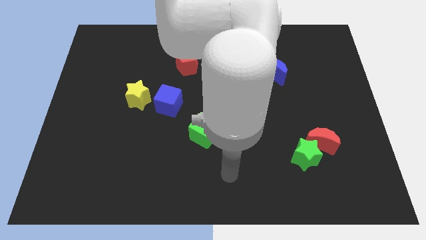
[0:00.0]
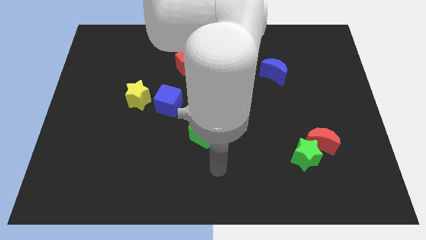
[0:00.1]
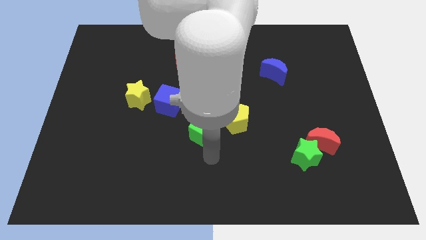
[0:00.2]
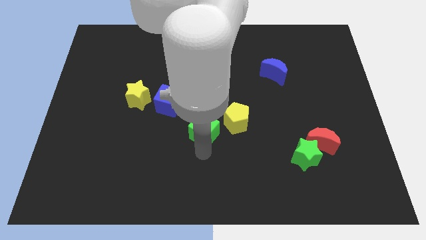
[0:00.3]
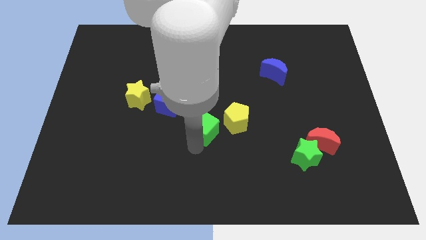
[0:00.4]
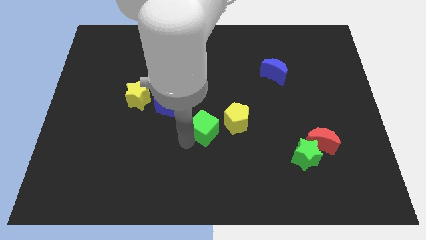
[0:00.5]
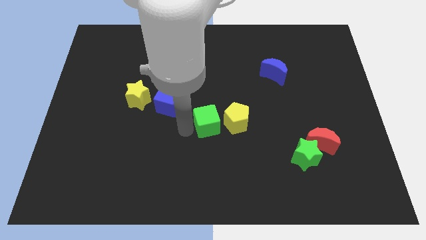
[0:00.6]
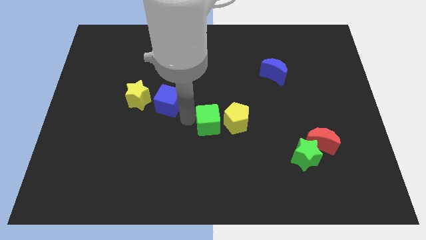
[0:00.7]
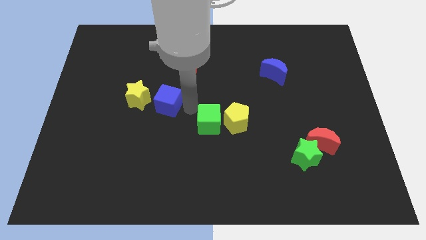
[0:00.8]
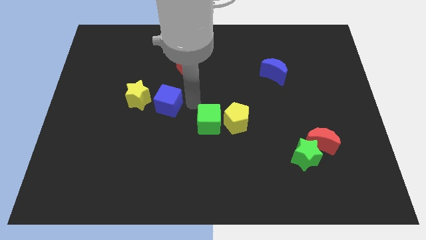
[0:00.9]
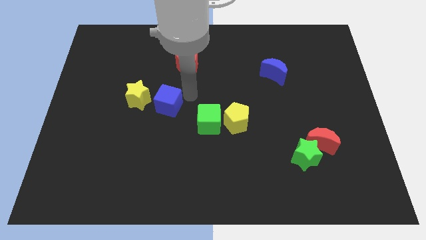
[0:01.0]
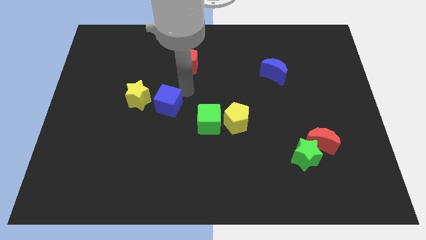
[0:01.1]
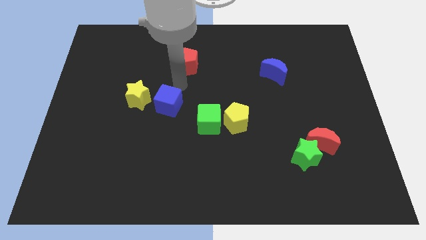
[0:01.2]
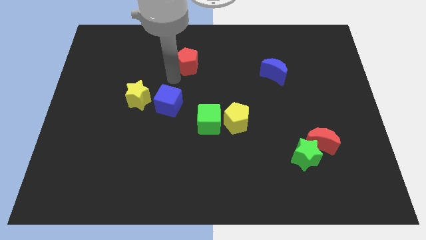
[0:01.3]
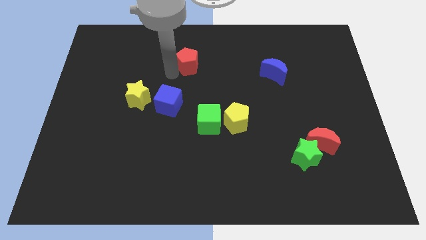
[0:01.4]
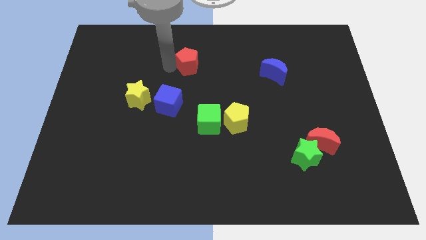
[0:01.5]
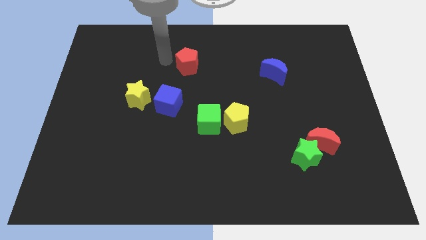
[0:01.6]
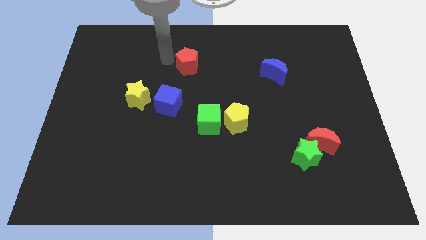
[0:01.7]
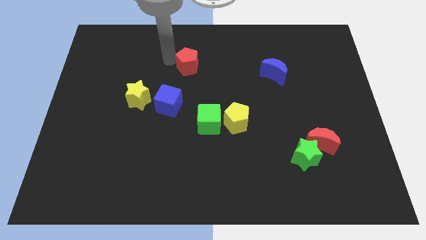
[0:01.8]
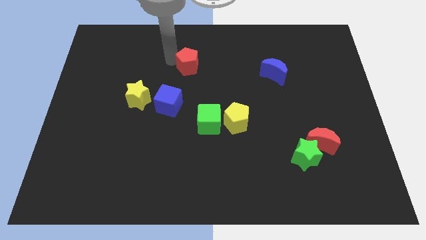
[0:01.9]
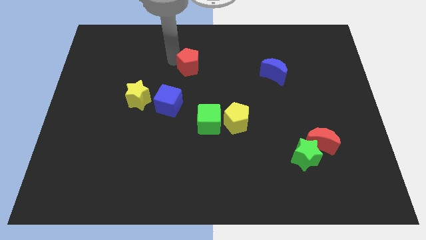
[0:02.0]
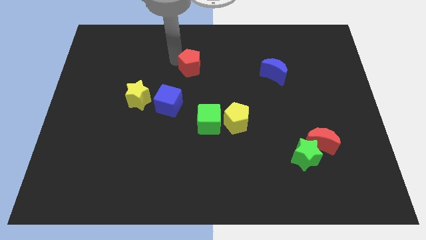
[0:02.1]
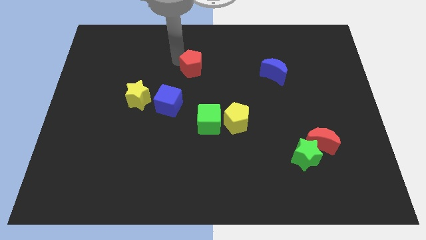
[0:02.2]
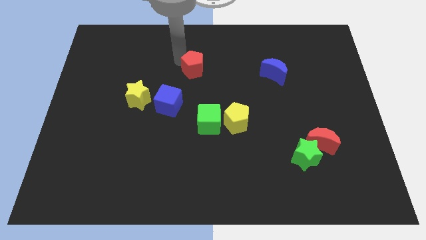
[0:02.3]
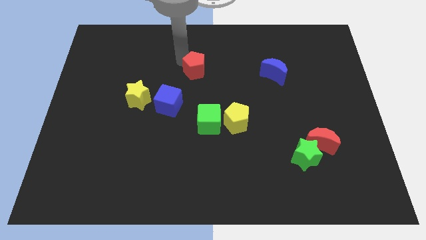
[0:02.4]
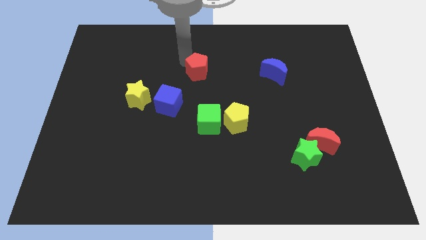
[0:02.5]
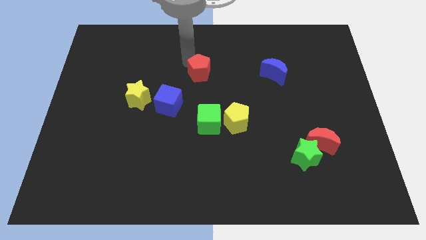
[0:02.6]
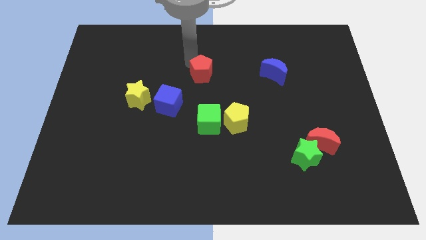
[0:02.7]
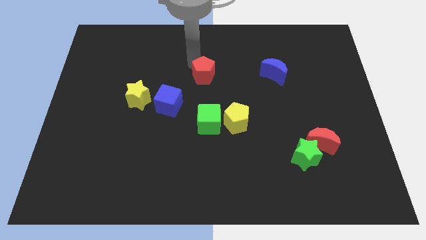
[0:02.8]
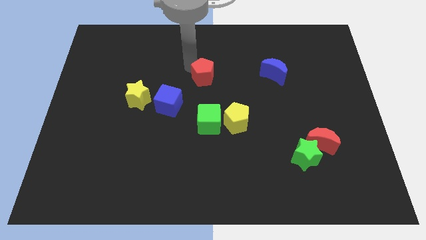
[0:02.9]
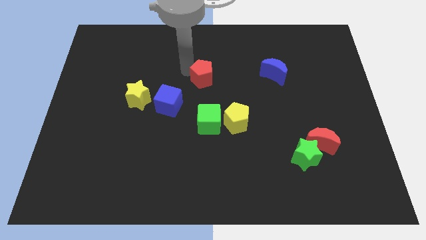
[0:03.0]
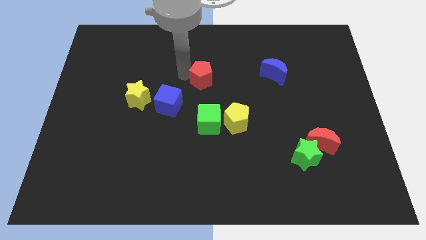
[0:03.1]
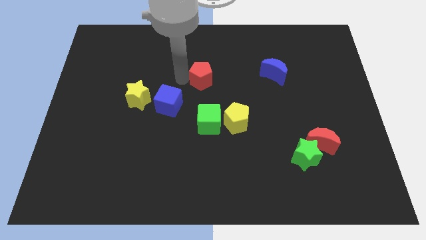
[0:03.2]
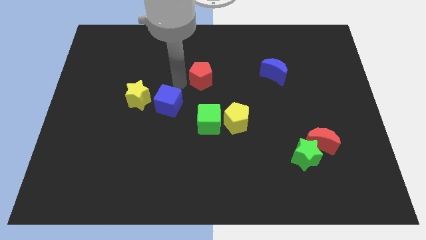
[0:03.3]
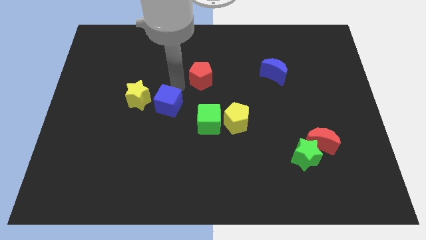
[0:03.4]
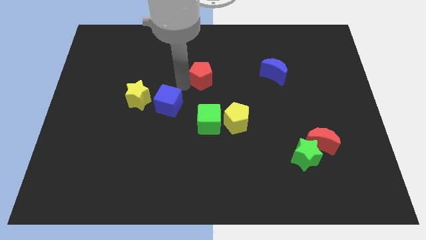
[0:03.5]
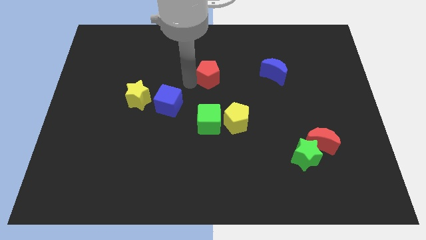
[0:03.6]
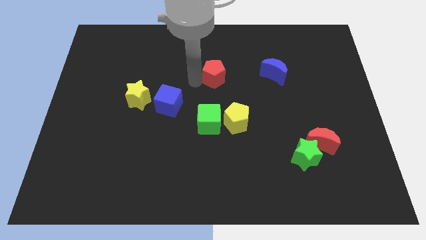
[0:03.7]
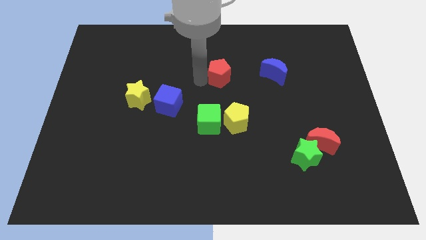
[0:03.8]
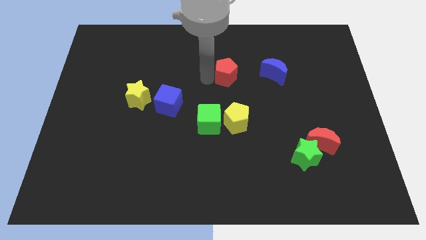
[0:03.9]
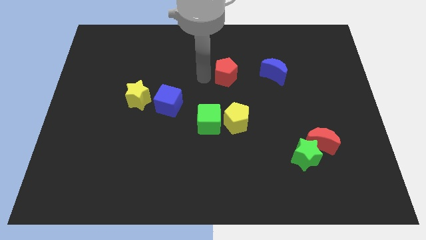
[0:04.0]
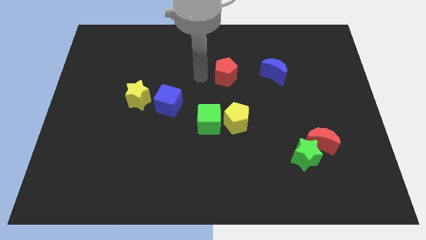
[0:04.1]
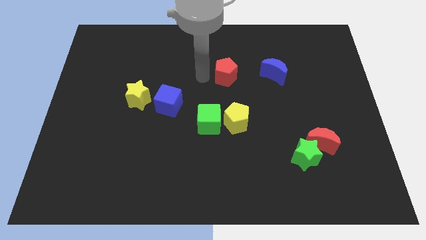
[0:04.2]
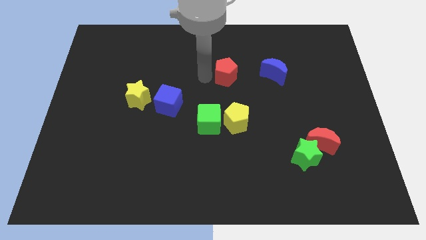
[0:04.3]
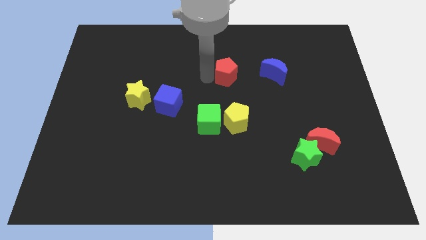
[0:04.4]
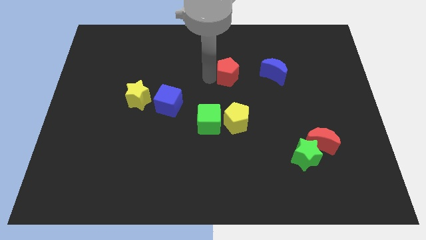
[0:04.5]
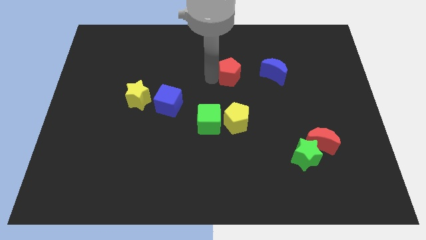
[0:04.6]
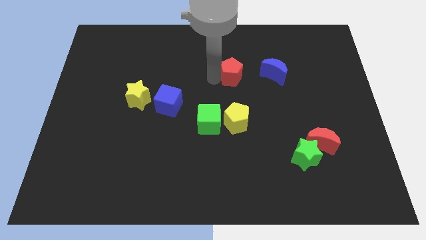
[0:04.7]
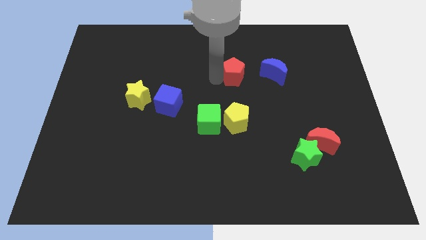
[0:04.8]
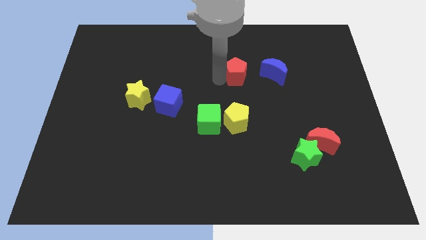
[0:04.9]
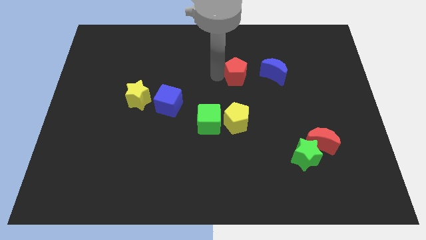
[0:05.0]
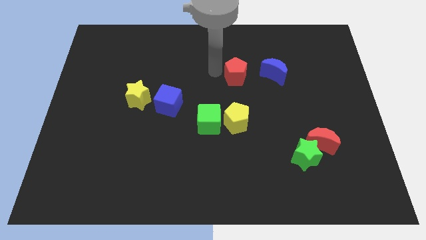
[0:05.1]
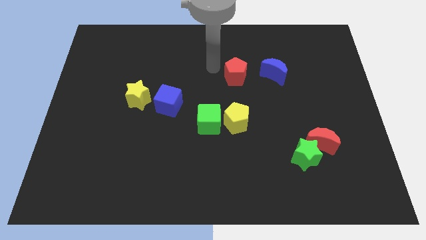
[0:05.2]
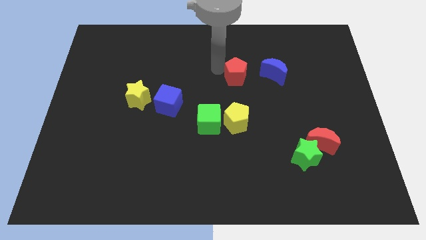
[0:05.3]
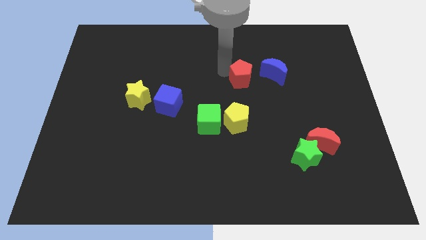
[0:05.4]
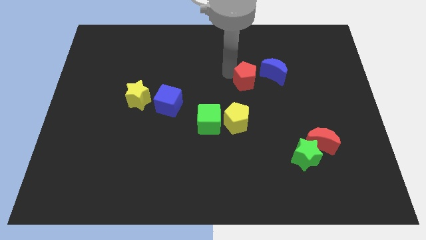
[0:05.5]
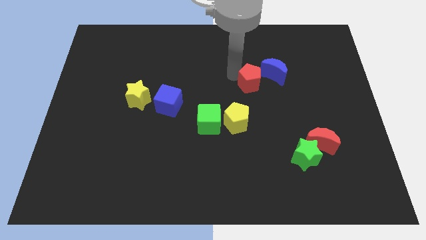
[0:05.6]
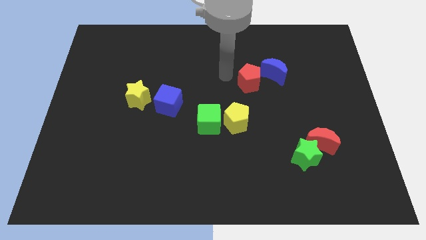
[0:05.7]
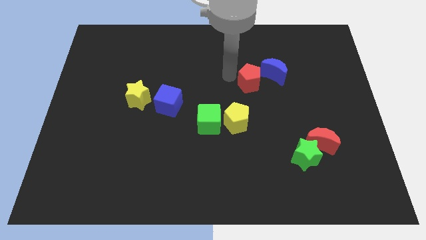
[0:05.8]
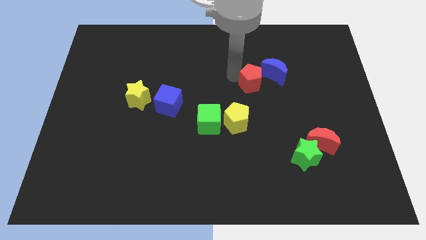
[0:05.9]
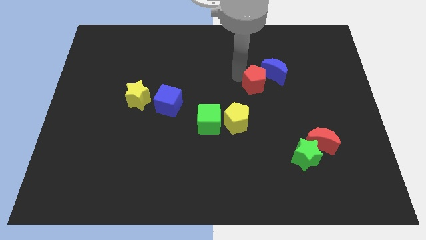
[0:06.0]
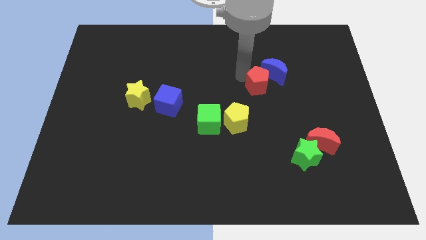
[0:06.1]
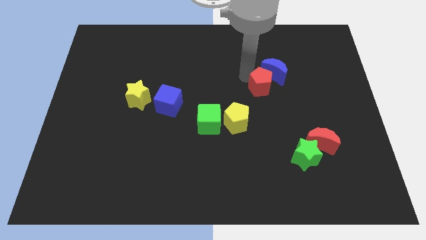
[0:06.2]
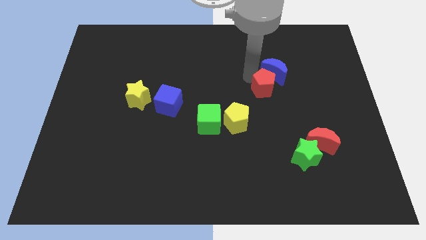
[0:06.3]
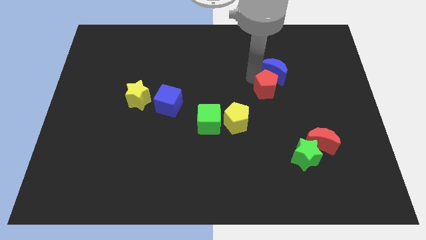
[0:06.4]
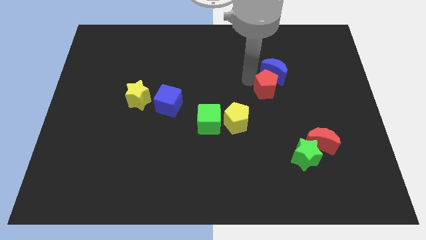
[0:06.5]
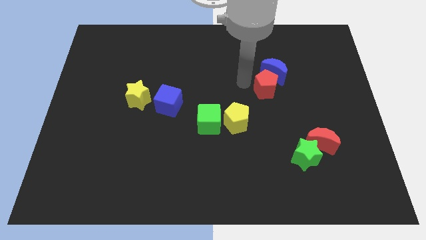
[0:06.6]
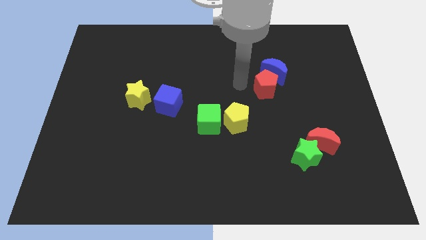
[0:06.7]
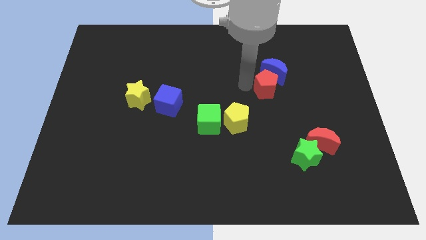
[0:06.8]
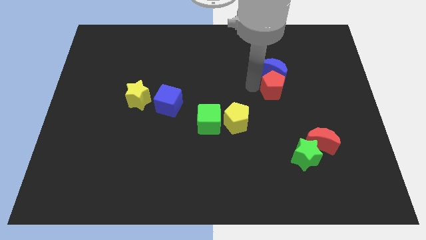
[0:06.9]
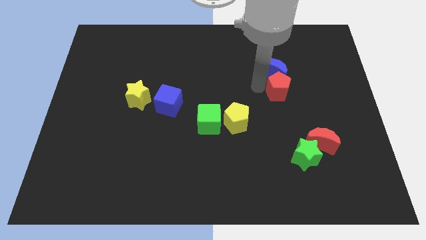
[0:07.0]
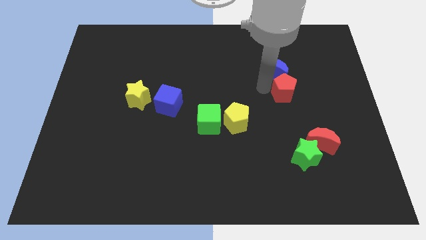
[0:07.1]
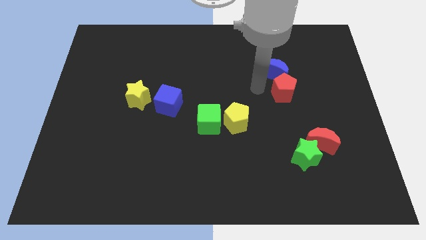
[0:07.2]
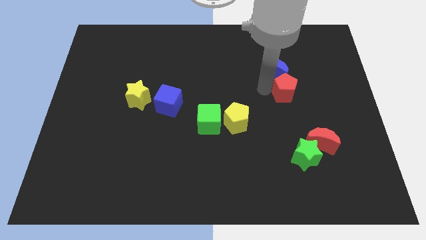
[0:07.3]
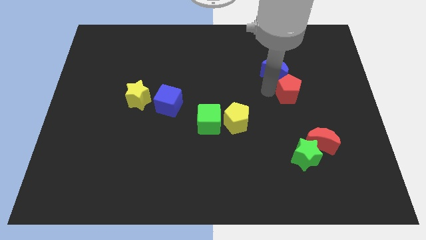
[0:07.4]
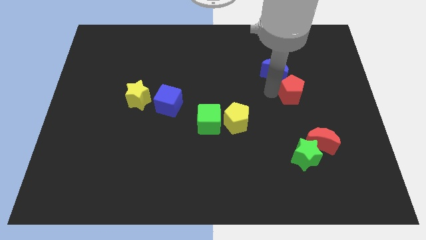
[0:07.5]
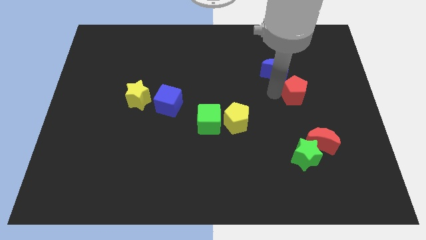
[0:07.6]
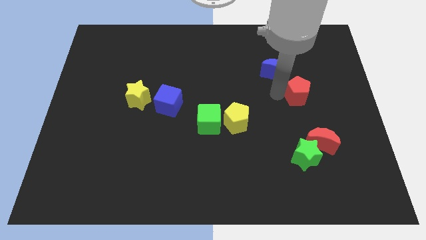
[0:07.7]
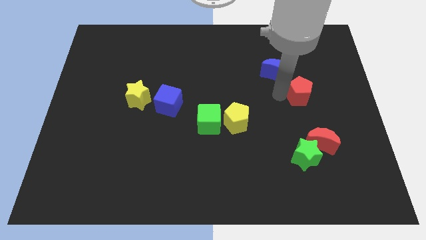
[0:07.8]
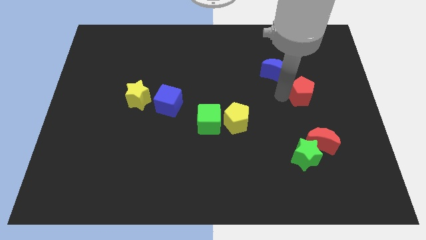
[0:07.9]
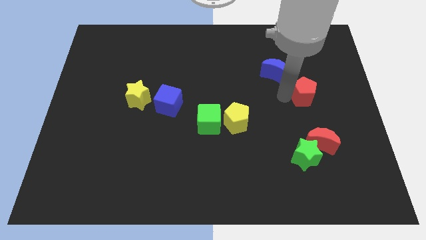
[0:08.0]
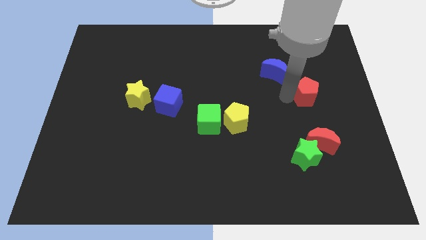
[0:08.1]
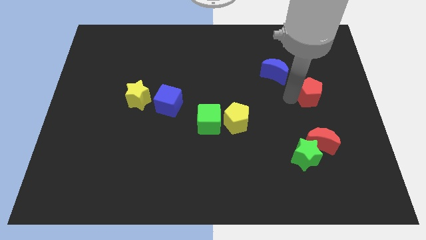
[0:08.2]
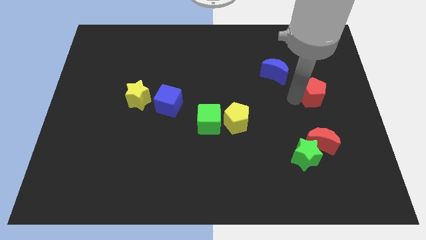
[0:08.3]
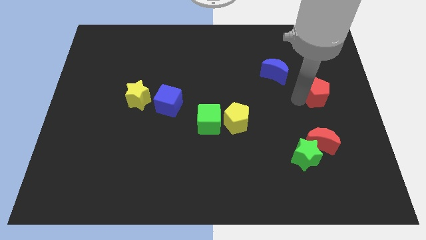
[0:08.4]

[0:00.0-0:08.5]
move the red pentagon to the right side
